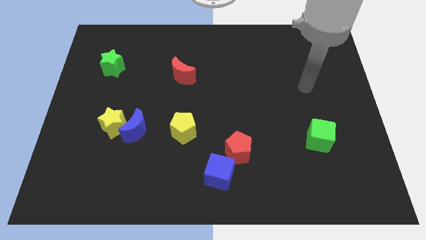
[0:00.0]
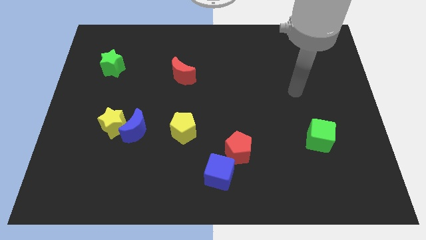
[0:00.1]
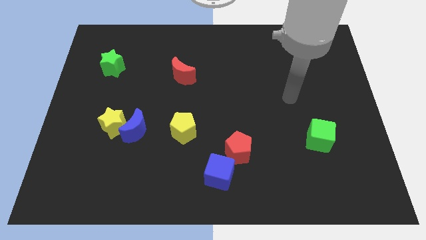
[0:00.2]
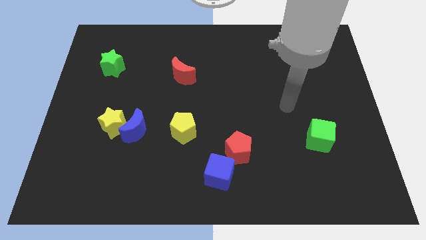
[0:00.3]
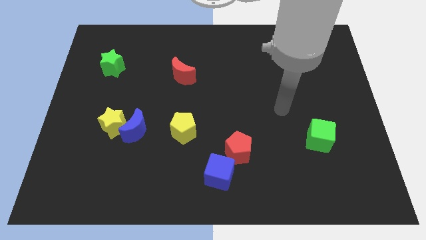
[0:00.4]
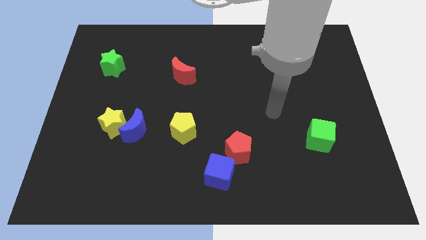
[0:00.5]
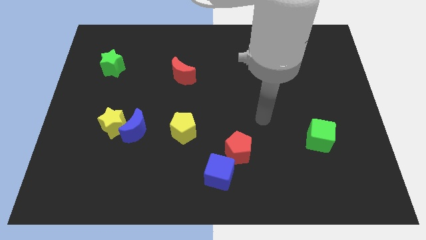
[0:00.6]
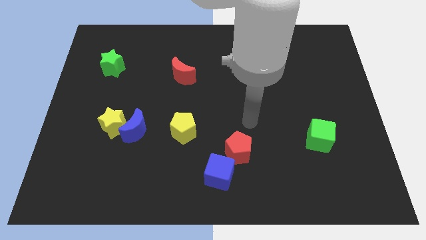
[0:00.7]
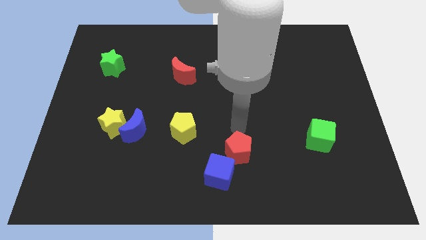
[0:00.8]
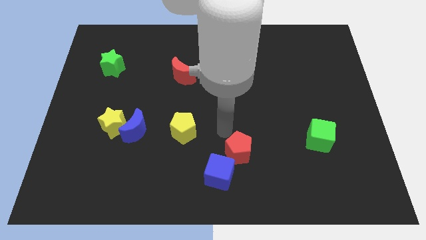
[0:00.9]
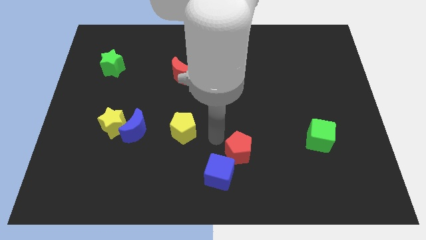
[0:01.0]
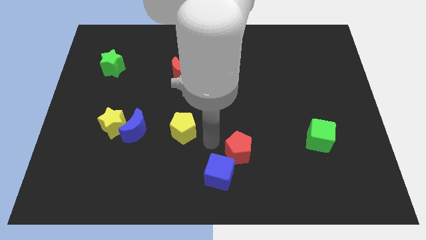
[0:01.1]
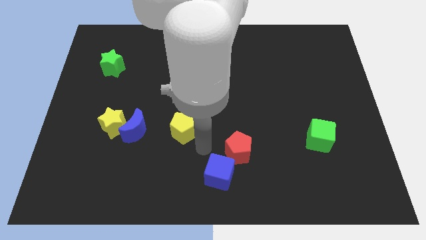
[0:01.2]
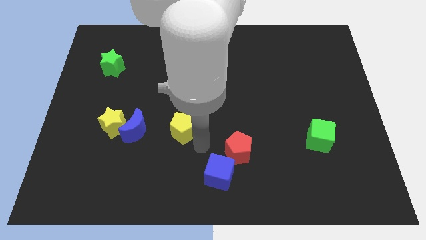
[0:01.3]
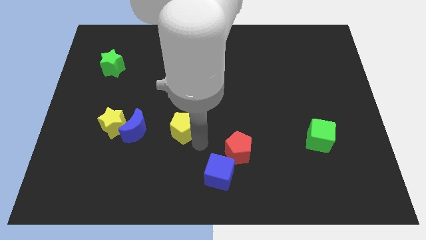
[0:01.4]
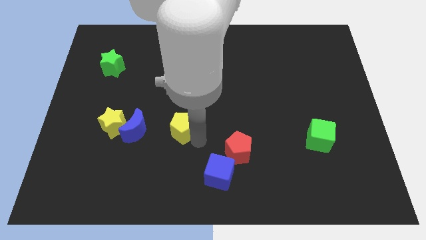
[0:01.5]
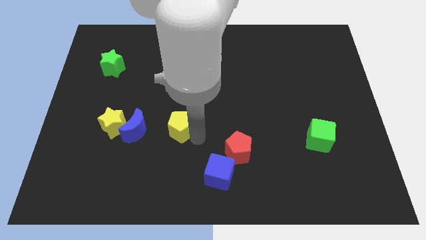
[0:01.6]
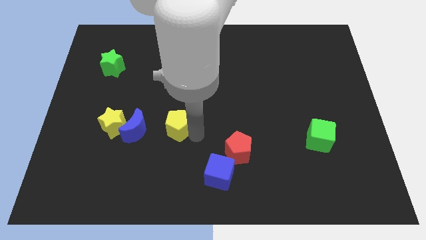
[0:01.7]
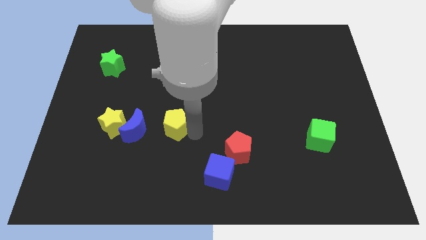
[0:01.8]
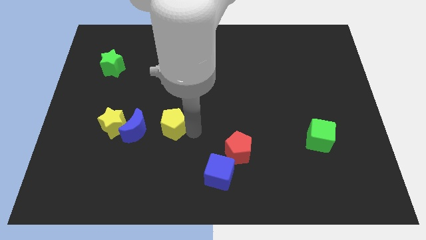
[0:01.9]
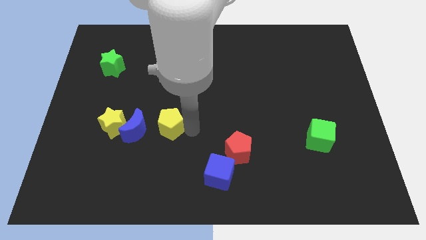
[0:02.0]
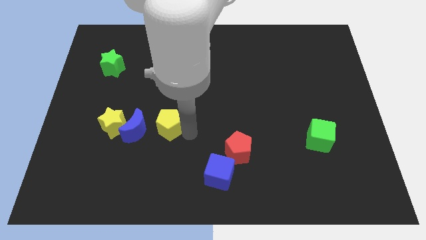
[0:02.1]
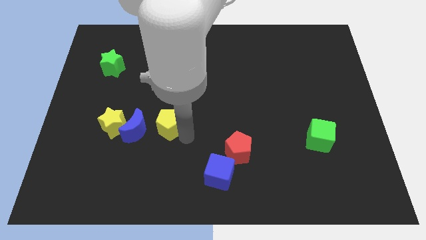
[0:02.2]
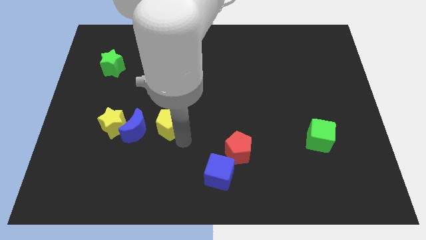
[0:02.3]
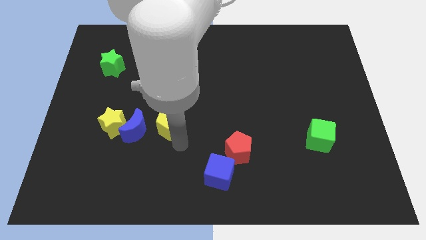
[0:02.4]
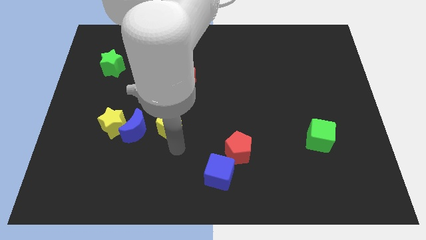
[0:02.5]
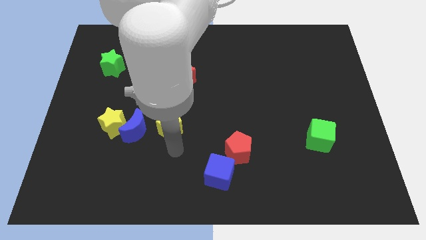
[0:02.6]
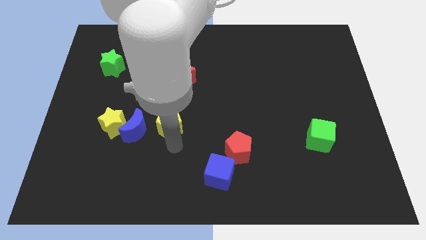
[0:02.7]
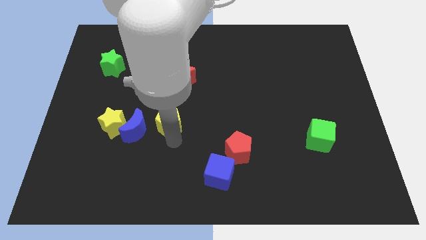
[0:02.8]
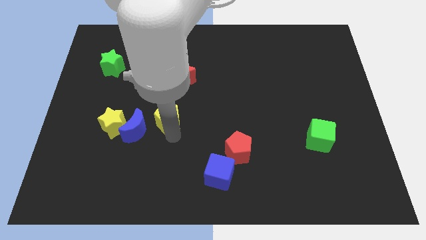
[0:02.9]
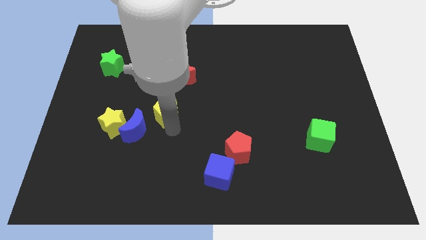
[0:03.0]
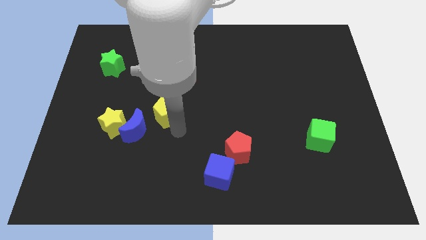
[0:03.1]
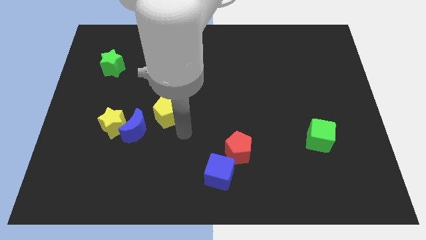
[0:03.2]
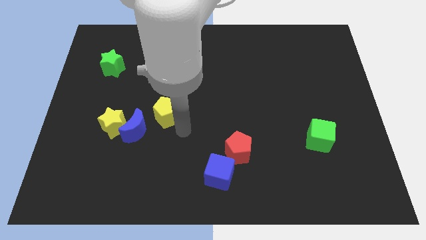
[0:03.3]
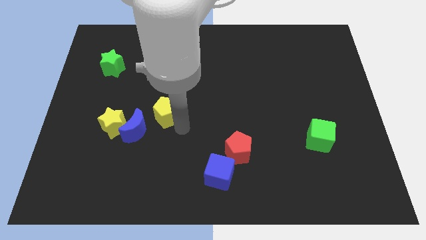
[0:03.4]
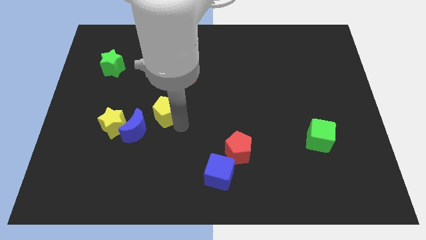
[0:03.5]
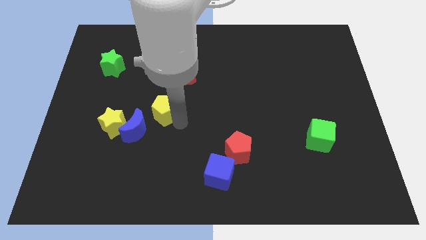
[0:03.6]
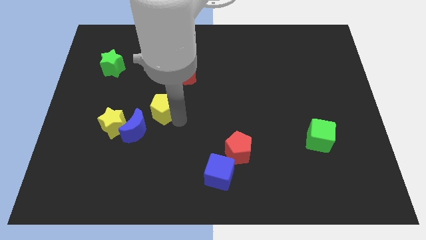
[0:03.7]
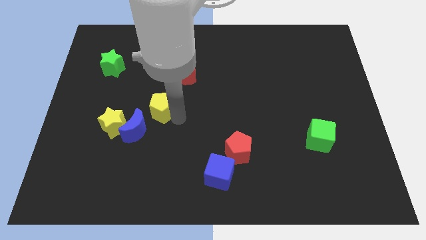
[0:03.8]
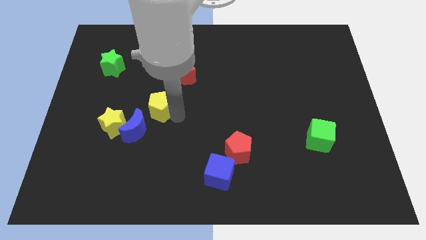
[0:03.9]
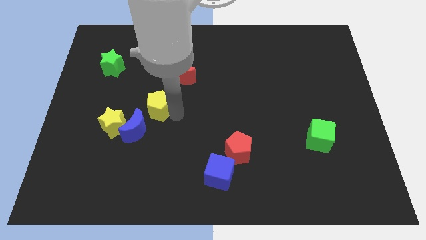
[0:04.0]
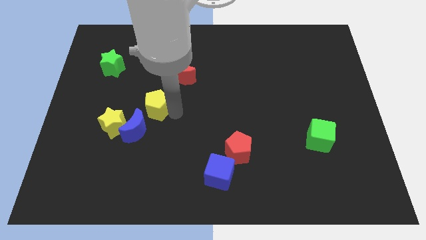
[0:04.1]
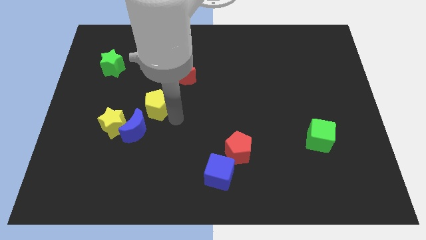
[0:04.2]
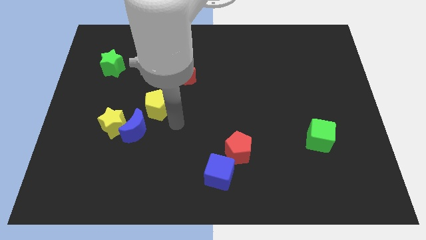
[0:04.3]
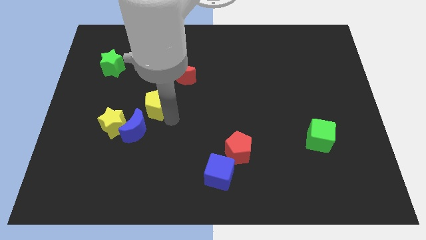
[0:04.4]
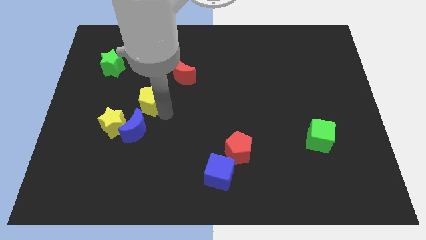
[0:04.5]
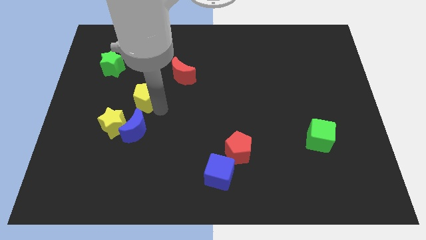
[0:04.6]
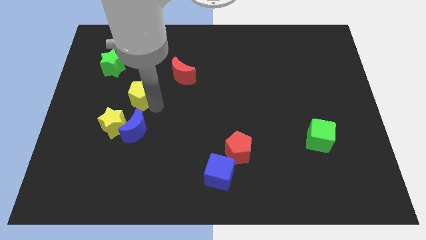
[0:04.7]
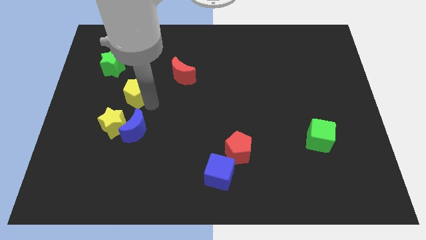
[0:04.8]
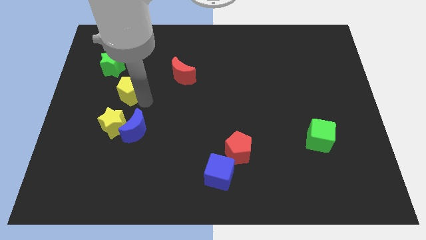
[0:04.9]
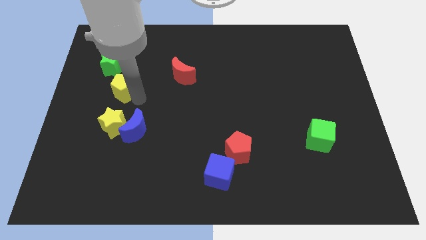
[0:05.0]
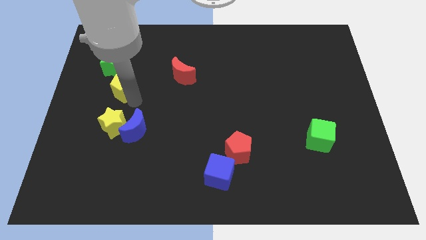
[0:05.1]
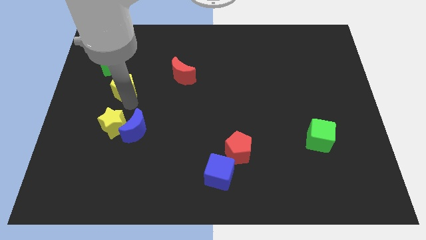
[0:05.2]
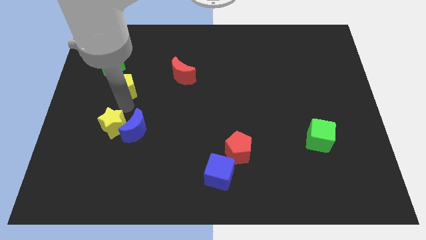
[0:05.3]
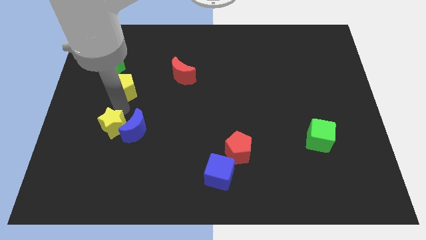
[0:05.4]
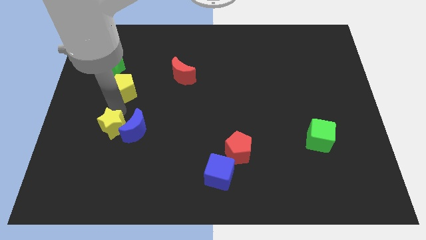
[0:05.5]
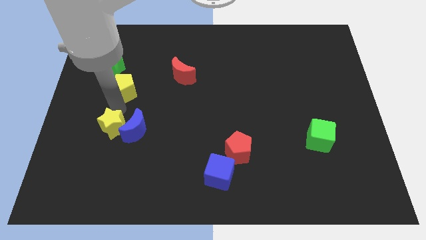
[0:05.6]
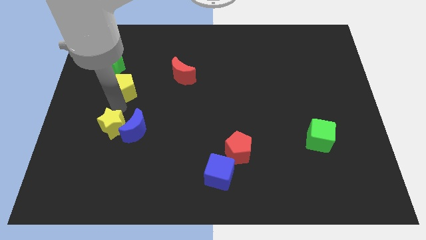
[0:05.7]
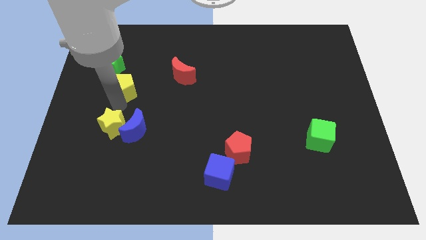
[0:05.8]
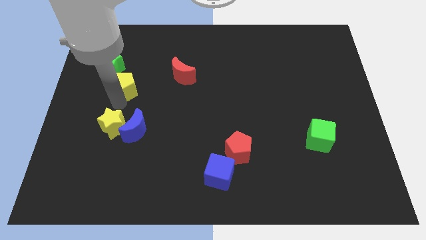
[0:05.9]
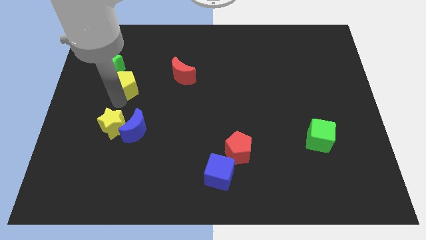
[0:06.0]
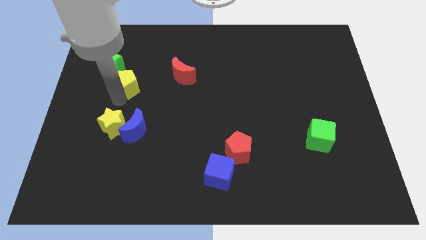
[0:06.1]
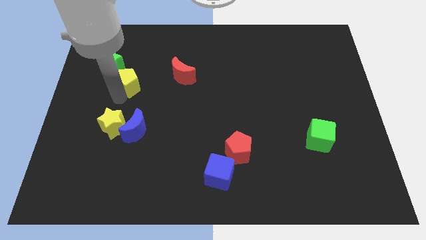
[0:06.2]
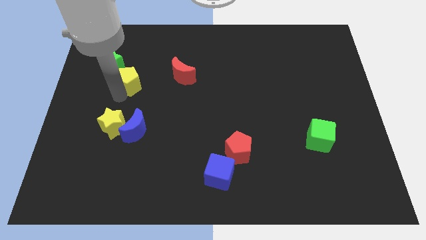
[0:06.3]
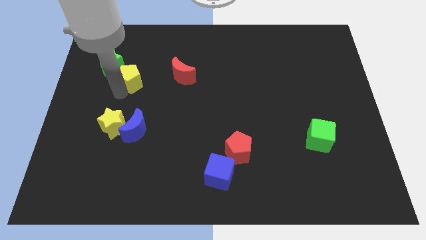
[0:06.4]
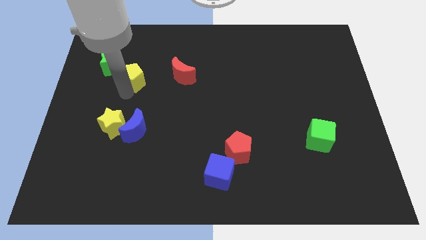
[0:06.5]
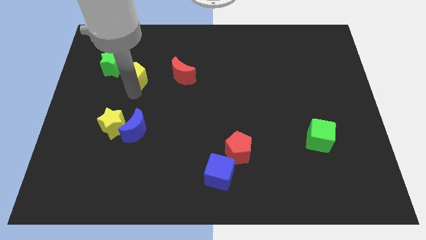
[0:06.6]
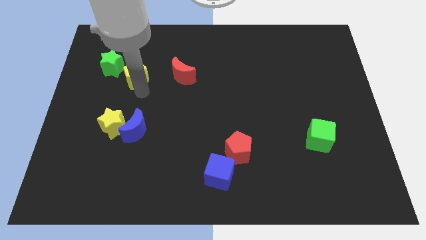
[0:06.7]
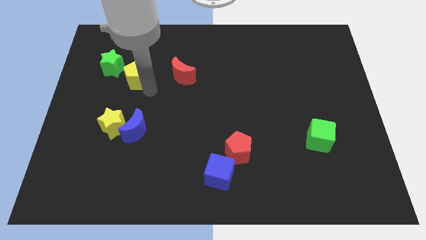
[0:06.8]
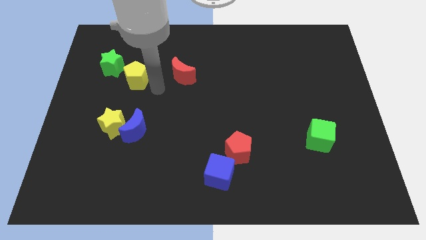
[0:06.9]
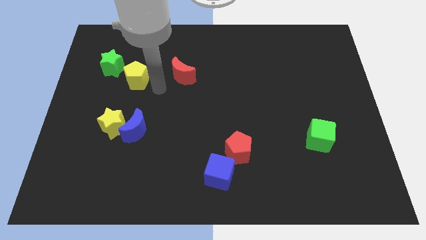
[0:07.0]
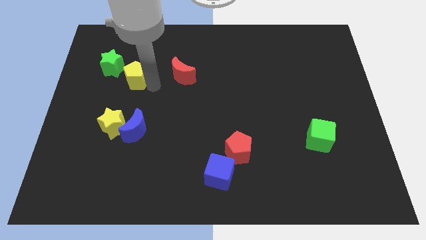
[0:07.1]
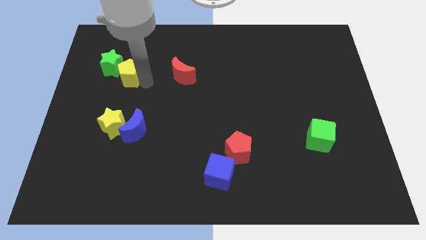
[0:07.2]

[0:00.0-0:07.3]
slide the yellow pentagon close to the green star

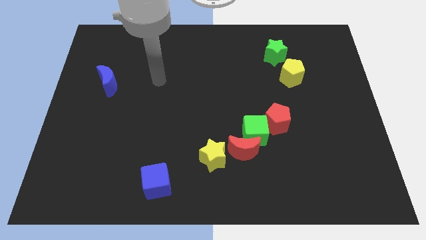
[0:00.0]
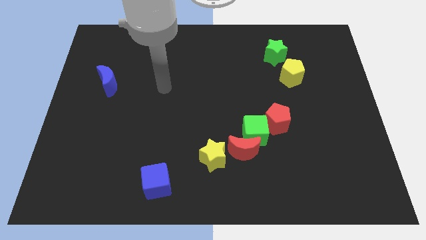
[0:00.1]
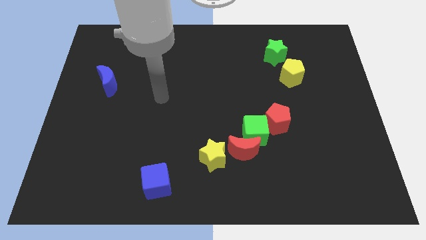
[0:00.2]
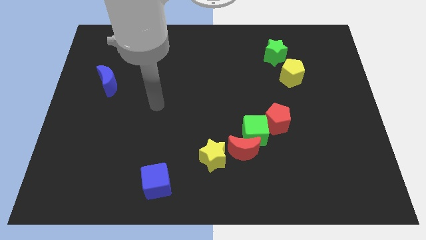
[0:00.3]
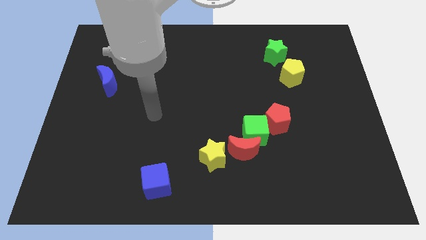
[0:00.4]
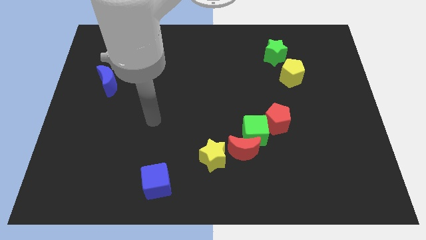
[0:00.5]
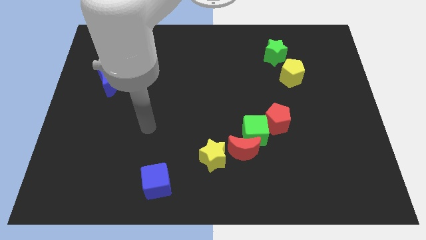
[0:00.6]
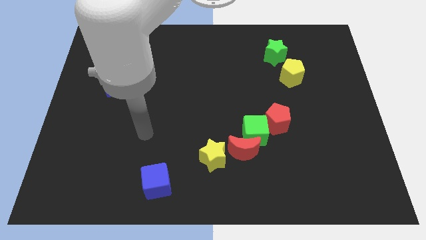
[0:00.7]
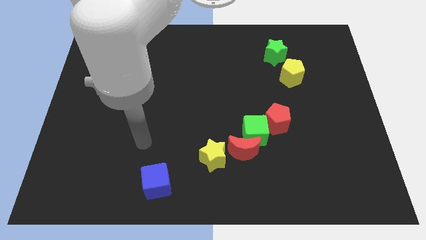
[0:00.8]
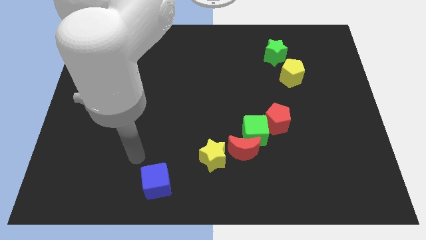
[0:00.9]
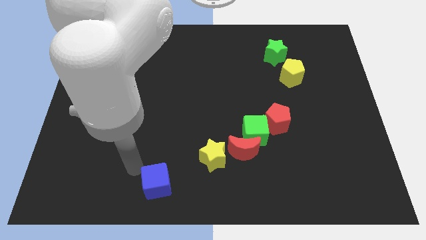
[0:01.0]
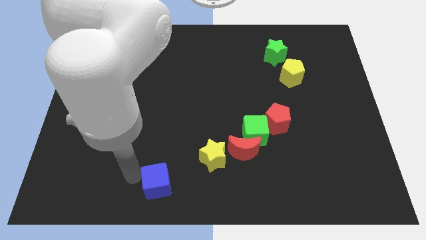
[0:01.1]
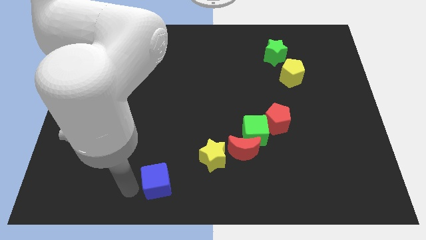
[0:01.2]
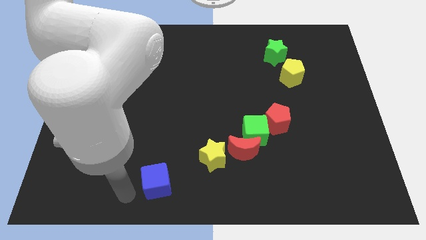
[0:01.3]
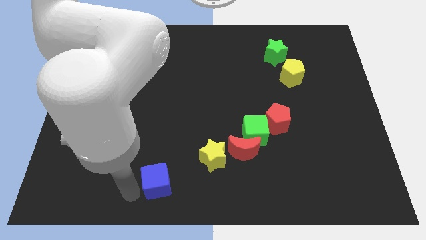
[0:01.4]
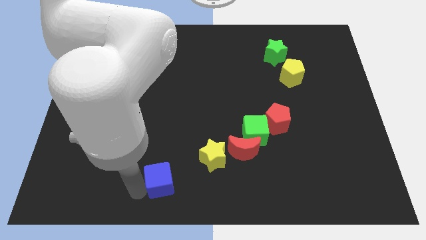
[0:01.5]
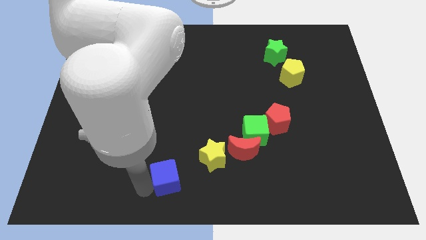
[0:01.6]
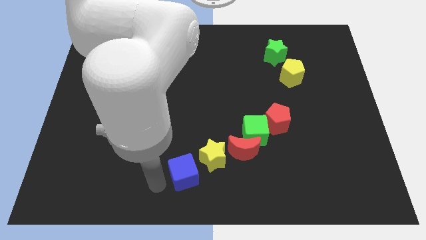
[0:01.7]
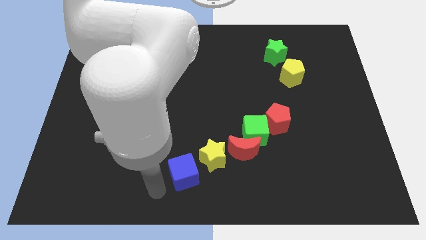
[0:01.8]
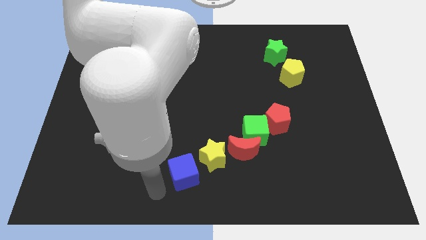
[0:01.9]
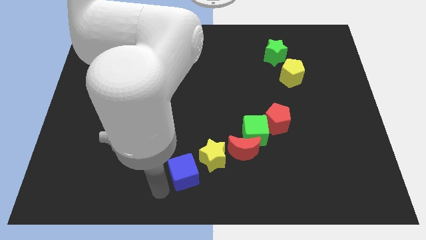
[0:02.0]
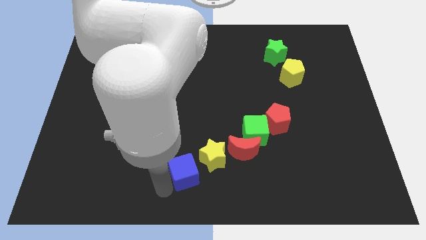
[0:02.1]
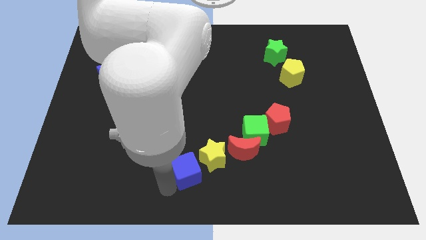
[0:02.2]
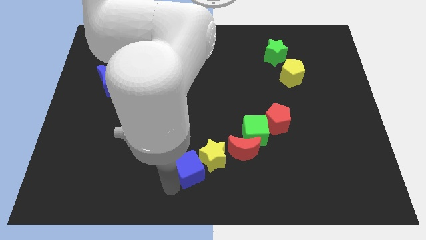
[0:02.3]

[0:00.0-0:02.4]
slide the blue cube close to the yellow star
